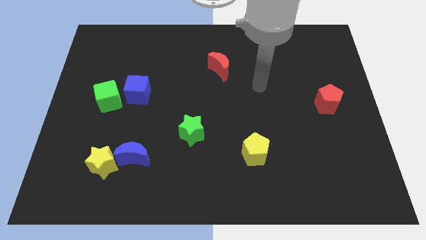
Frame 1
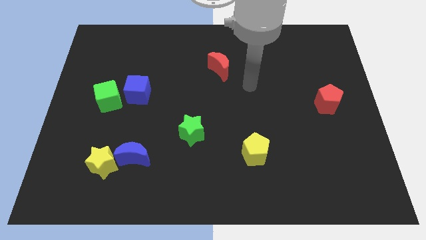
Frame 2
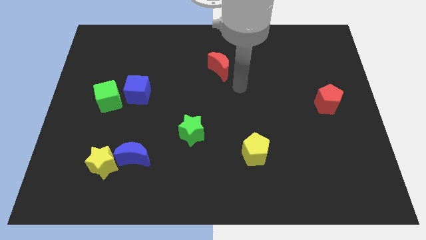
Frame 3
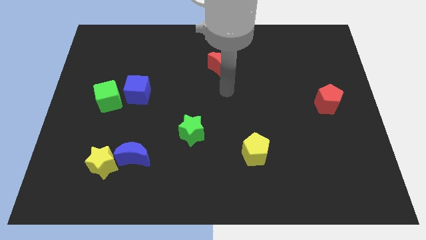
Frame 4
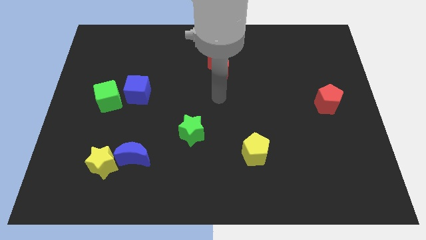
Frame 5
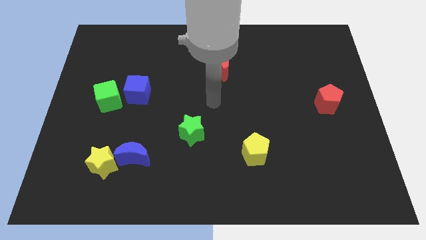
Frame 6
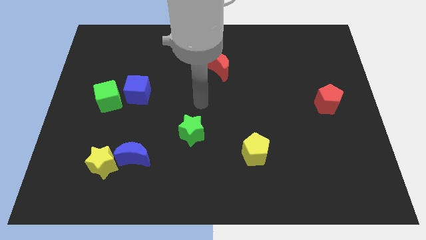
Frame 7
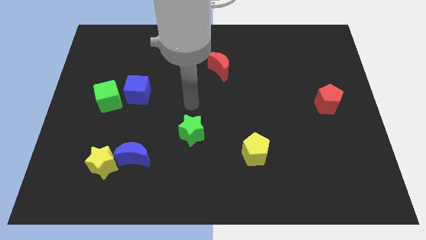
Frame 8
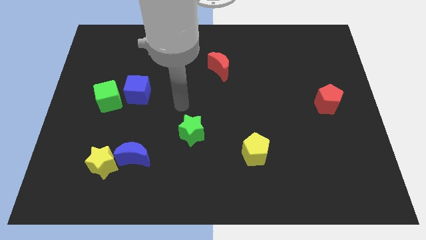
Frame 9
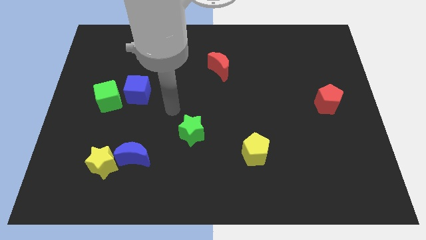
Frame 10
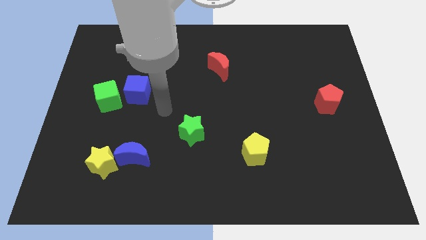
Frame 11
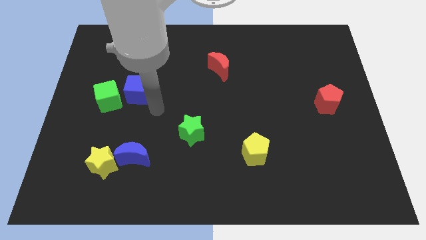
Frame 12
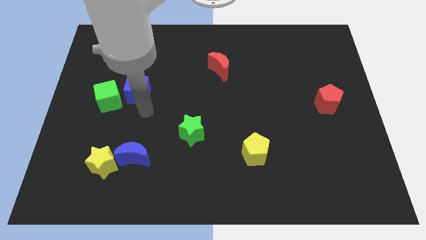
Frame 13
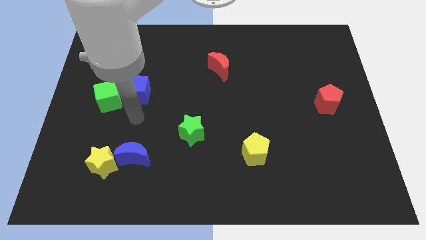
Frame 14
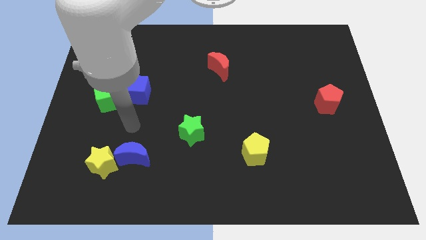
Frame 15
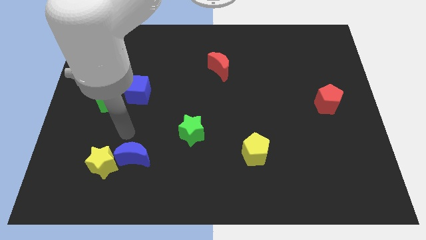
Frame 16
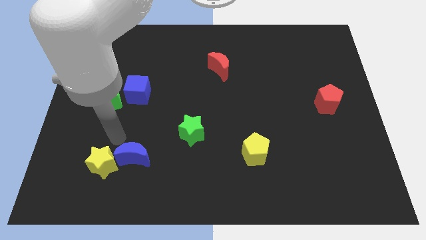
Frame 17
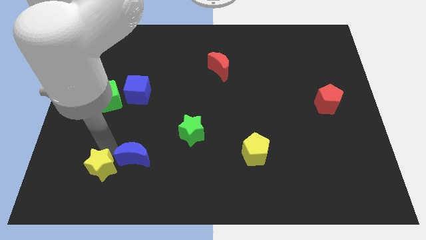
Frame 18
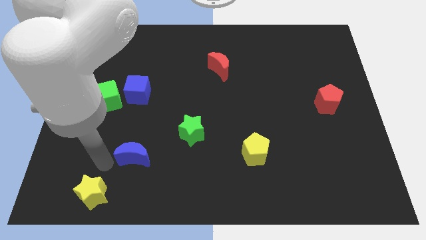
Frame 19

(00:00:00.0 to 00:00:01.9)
separate the blue moon from the yellow star

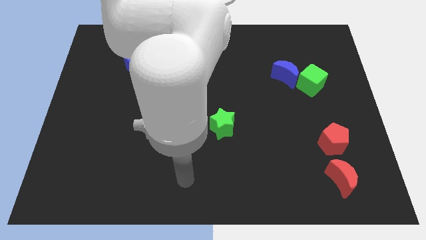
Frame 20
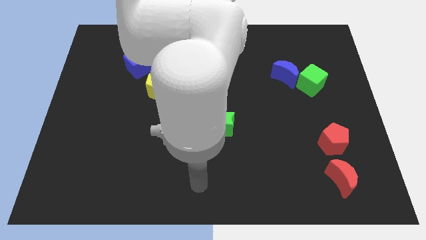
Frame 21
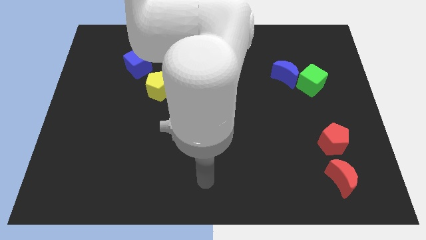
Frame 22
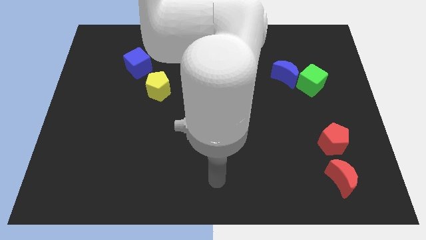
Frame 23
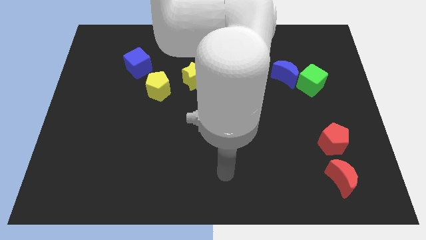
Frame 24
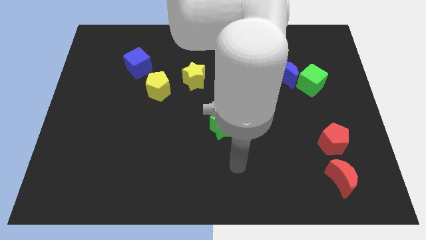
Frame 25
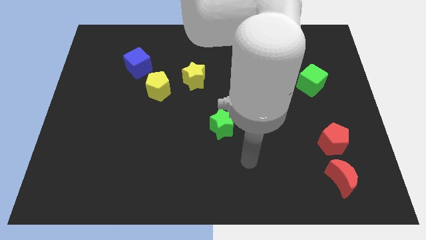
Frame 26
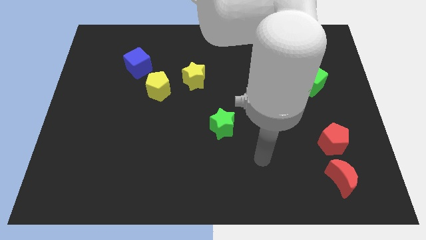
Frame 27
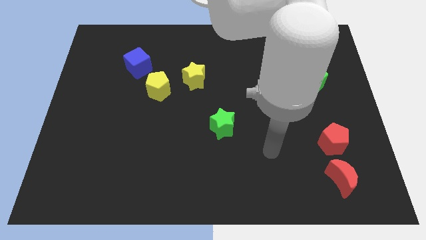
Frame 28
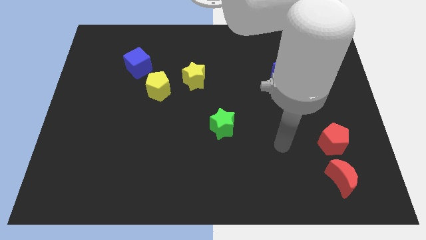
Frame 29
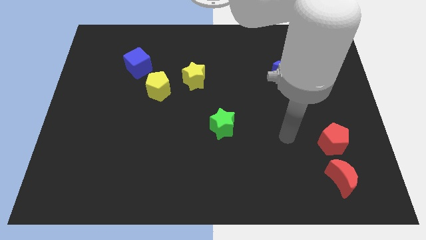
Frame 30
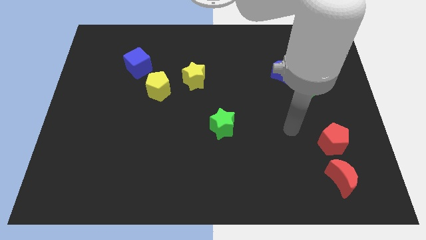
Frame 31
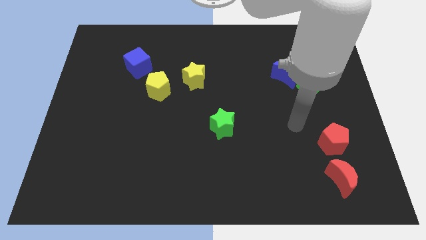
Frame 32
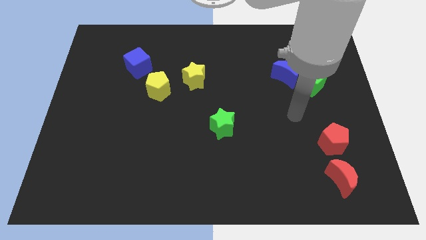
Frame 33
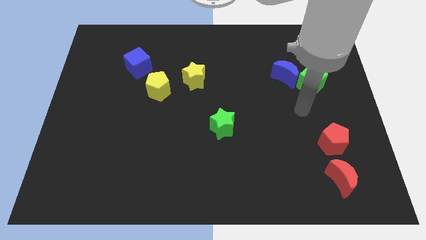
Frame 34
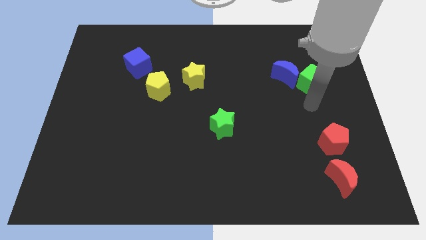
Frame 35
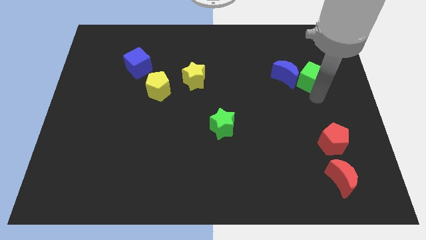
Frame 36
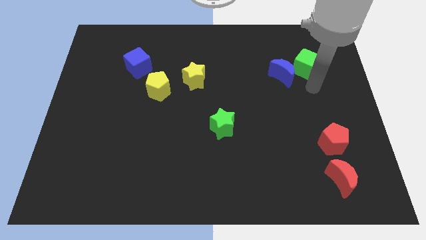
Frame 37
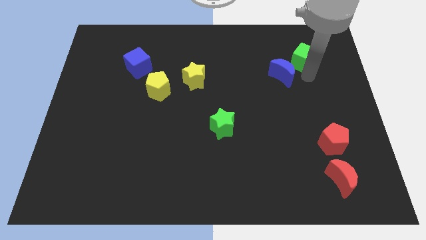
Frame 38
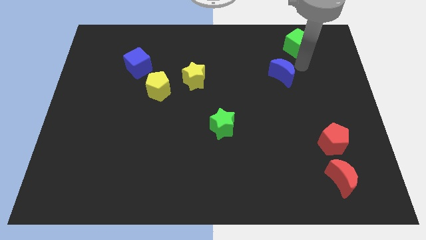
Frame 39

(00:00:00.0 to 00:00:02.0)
separate the blue moon from the green cube

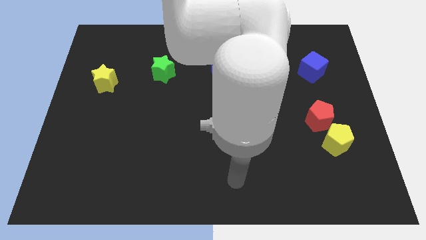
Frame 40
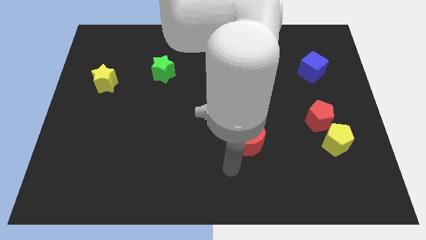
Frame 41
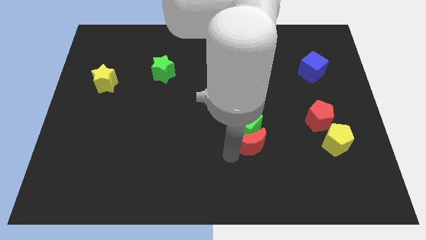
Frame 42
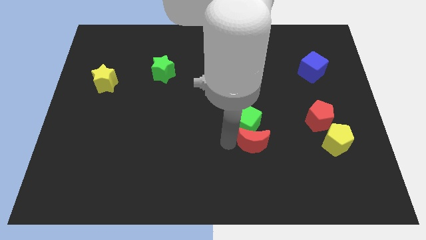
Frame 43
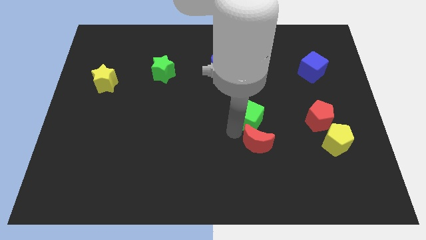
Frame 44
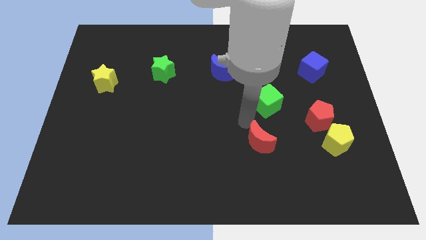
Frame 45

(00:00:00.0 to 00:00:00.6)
move the red moon away from the green cube

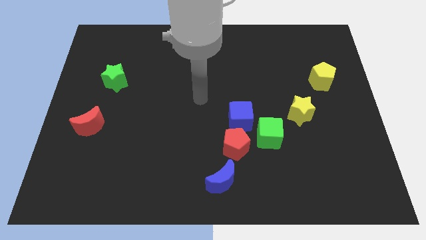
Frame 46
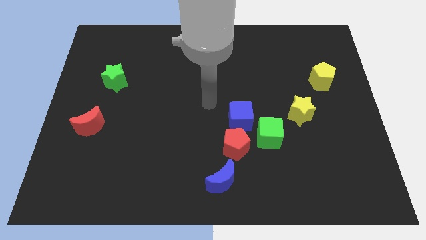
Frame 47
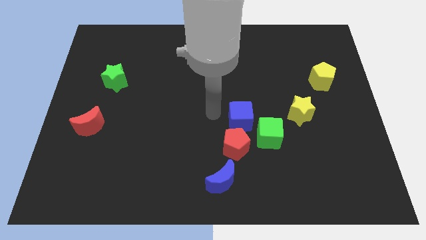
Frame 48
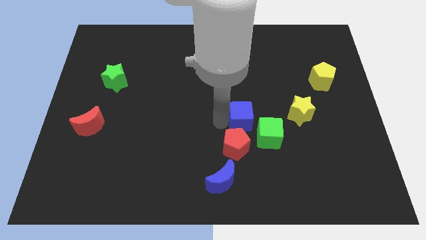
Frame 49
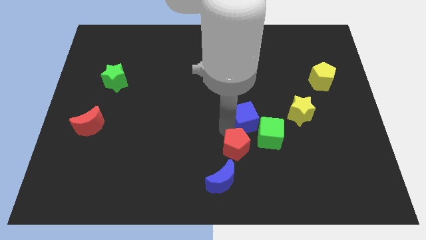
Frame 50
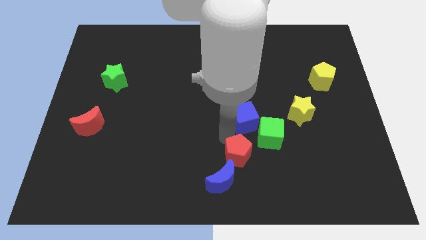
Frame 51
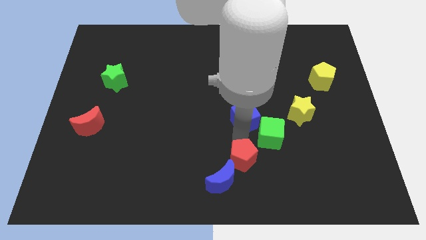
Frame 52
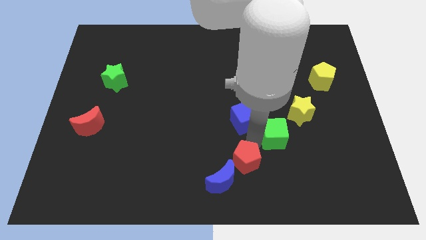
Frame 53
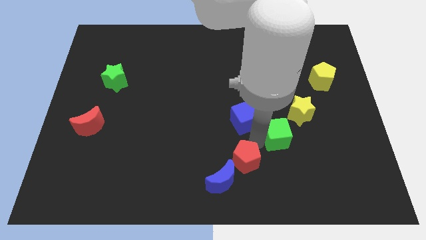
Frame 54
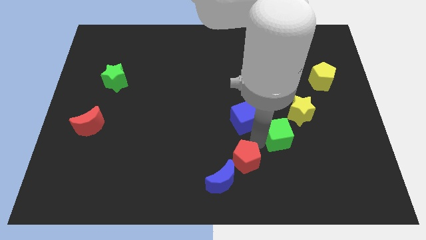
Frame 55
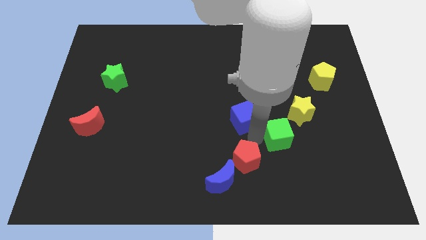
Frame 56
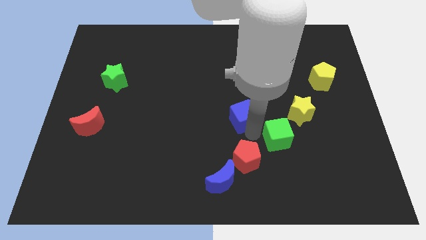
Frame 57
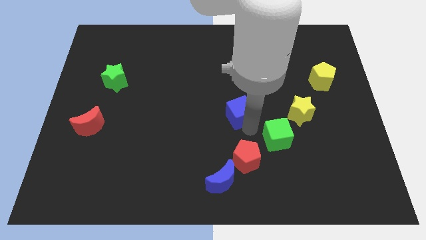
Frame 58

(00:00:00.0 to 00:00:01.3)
pull the blue cube apart from the red pentagon and green cube

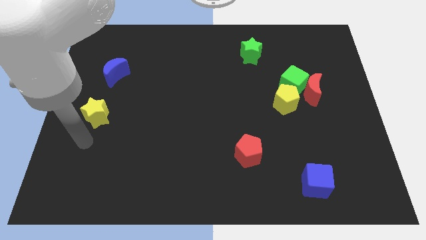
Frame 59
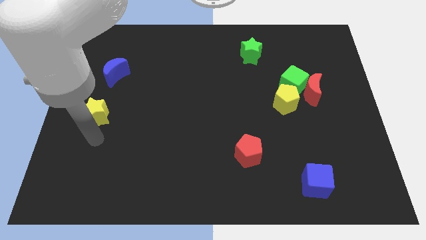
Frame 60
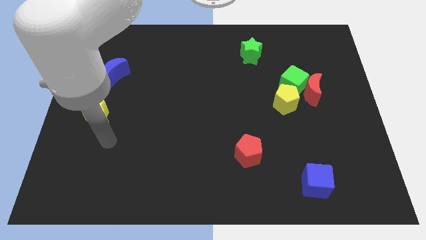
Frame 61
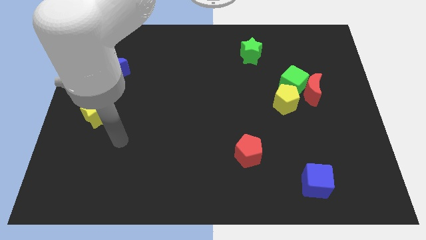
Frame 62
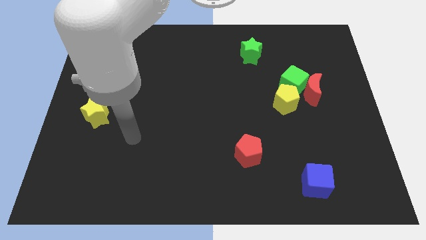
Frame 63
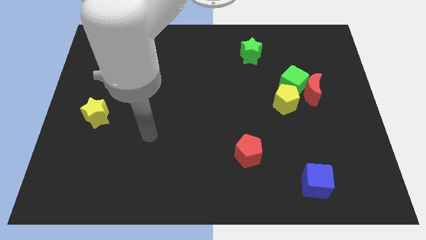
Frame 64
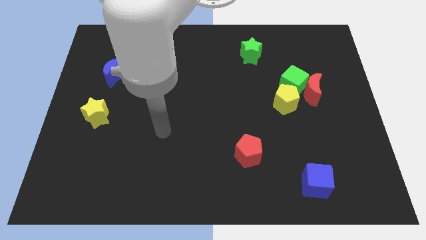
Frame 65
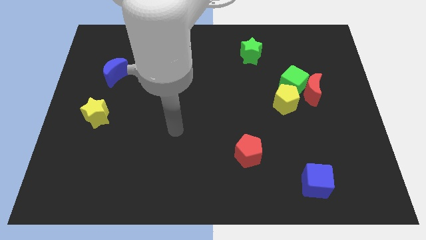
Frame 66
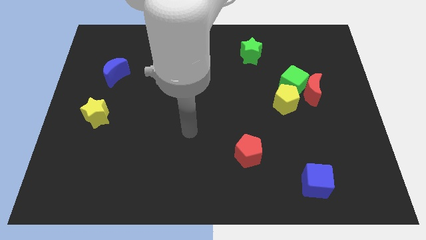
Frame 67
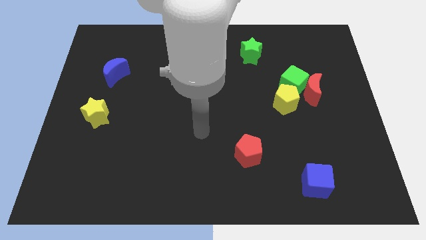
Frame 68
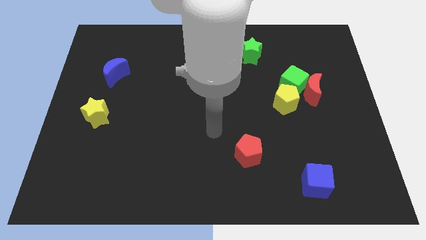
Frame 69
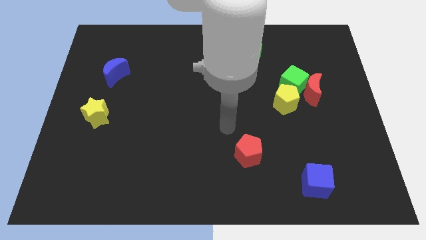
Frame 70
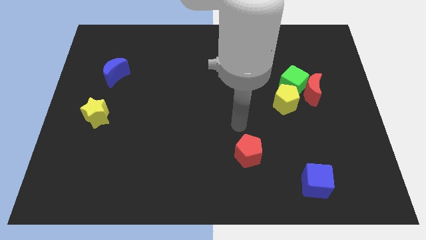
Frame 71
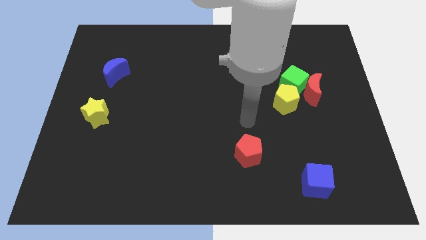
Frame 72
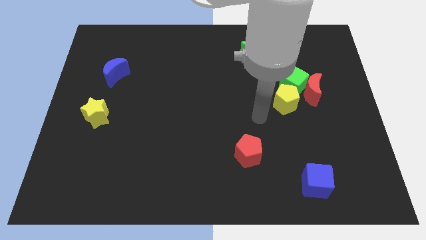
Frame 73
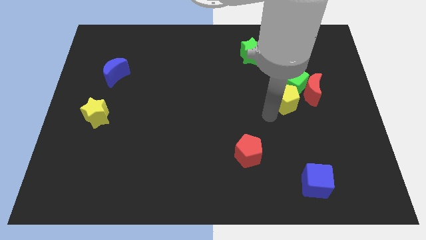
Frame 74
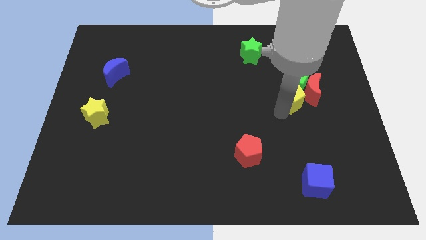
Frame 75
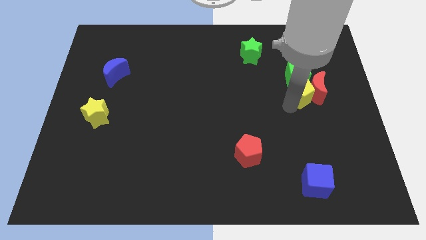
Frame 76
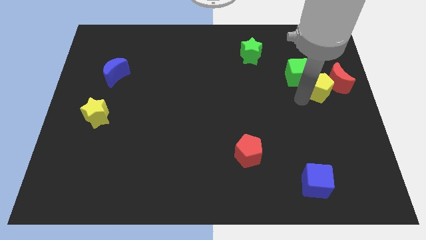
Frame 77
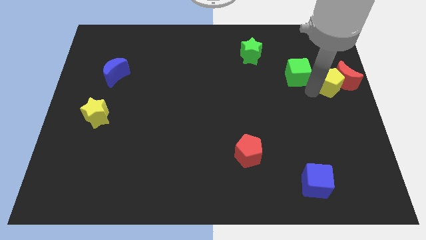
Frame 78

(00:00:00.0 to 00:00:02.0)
separate the green cube from the red moon and yellow pentagon

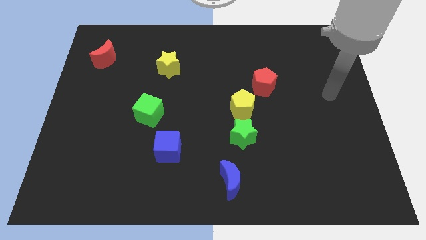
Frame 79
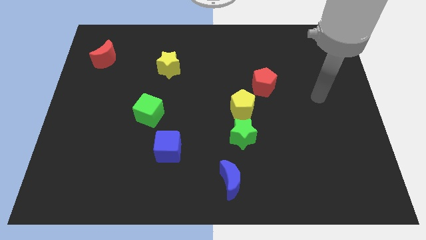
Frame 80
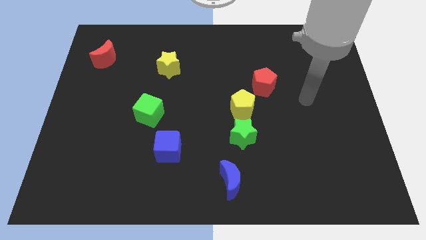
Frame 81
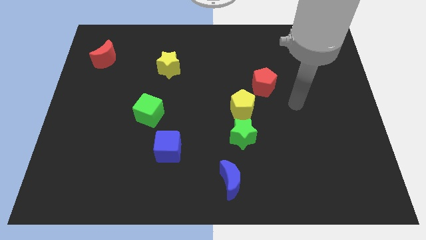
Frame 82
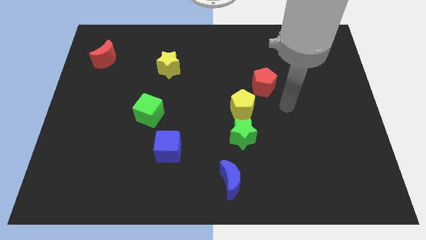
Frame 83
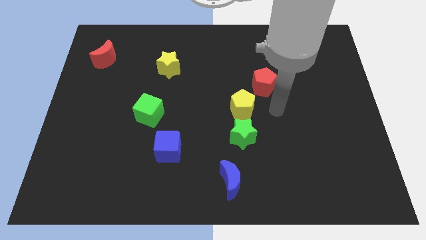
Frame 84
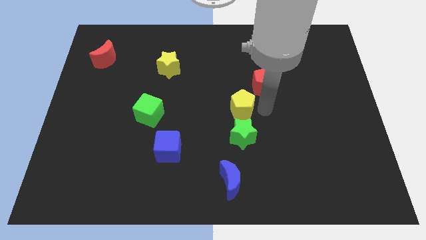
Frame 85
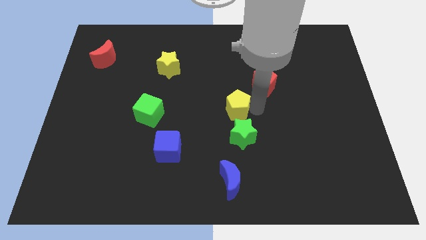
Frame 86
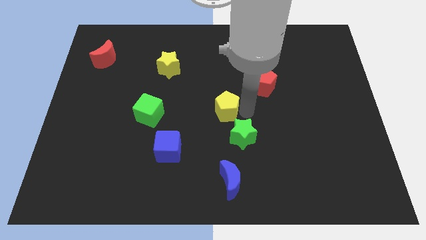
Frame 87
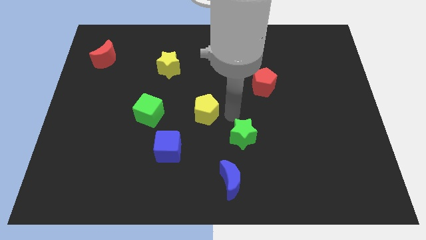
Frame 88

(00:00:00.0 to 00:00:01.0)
move the green star away from the yellow pentagon

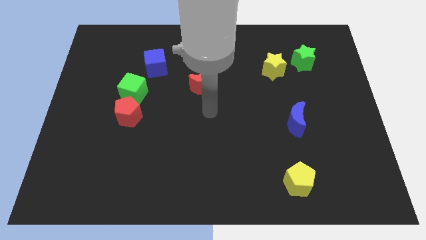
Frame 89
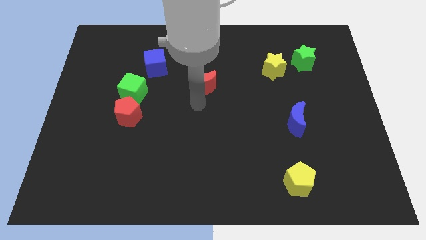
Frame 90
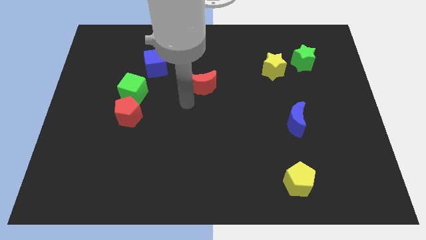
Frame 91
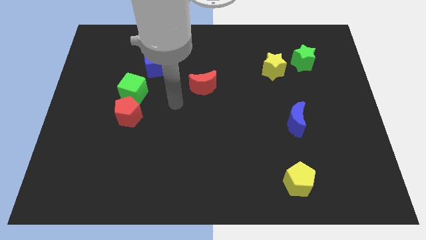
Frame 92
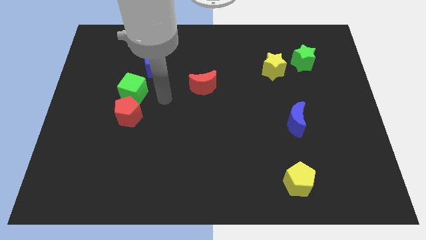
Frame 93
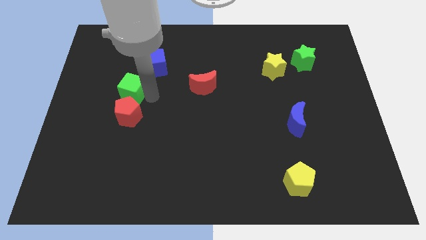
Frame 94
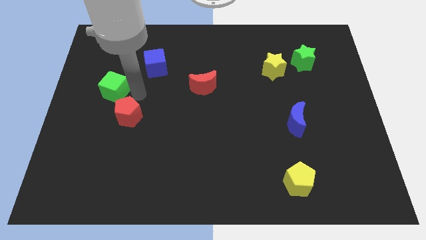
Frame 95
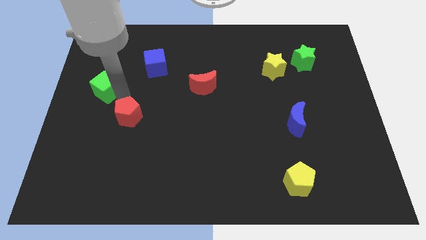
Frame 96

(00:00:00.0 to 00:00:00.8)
move the red pentagon away from the green cube
